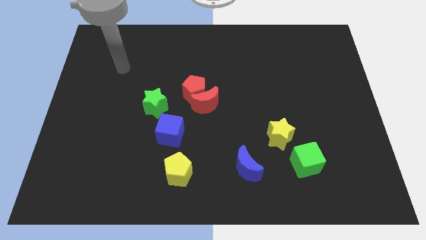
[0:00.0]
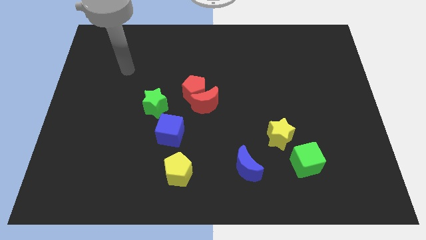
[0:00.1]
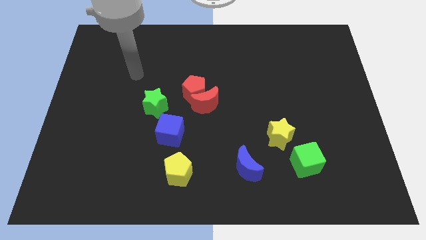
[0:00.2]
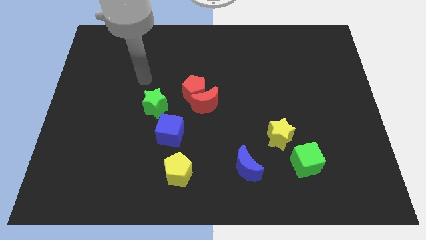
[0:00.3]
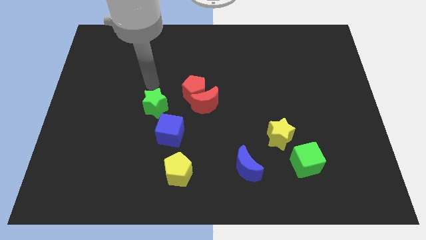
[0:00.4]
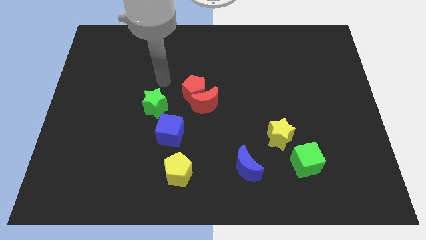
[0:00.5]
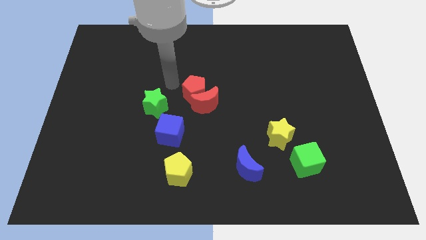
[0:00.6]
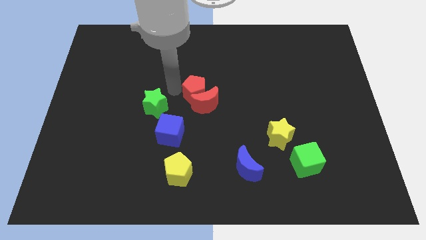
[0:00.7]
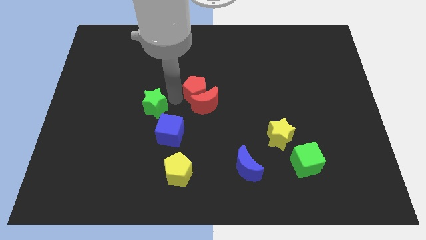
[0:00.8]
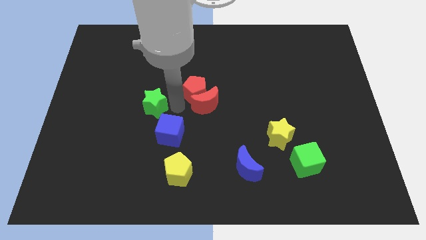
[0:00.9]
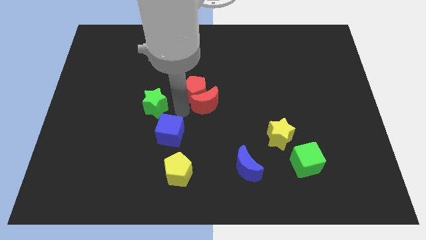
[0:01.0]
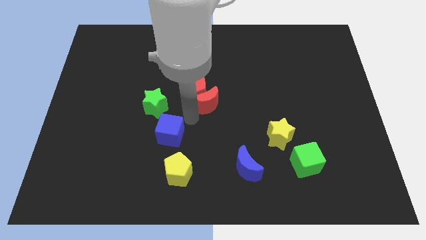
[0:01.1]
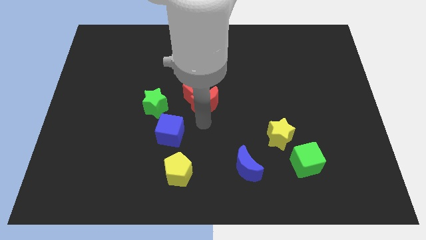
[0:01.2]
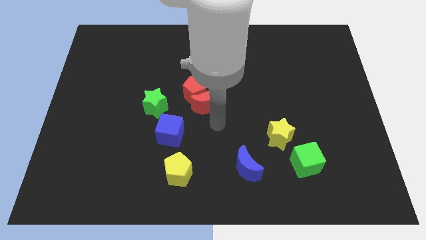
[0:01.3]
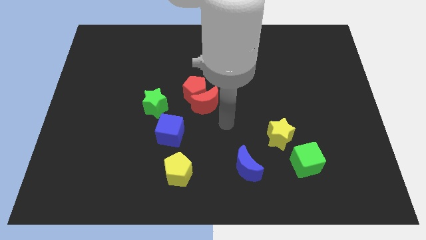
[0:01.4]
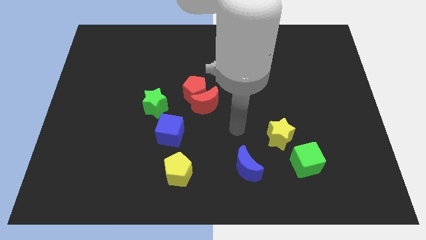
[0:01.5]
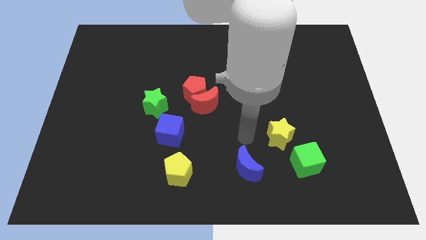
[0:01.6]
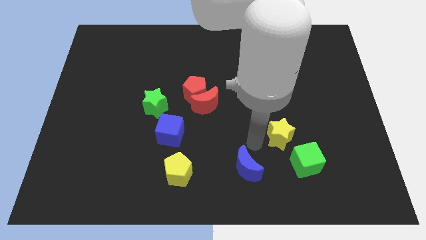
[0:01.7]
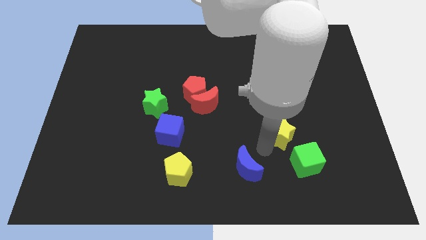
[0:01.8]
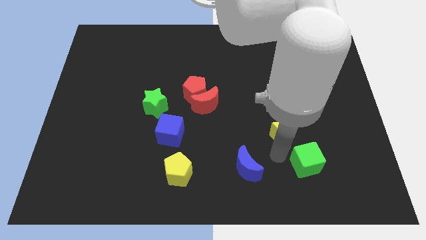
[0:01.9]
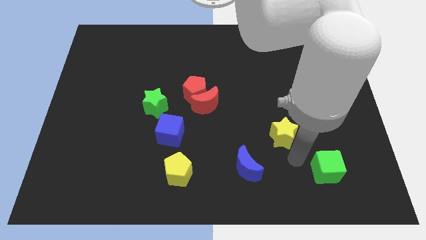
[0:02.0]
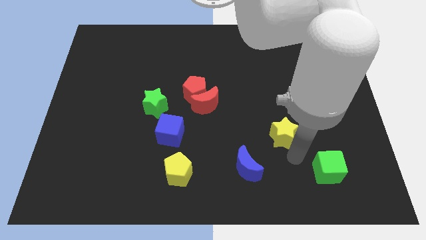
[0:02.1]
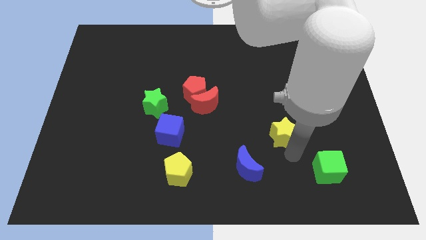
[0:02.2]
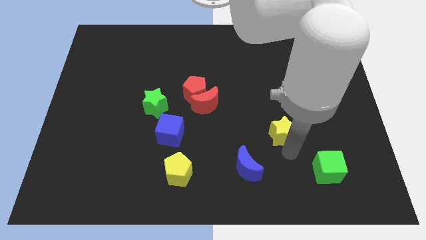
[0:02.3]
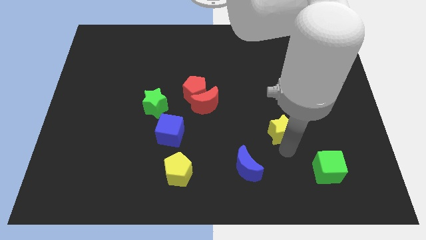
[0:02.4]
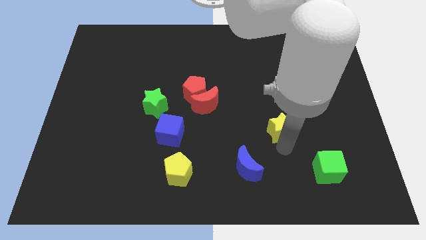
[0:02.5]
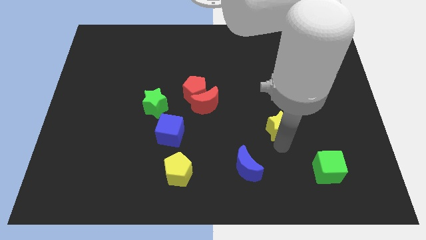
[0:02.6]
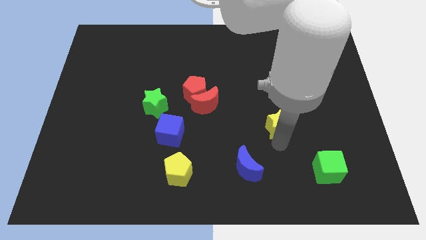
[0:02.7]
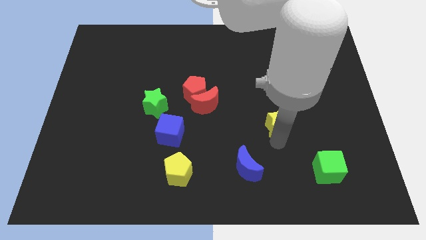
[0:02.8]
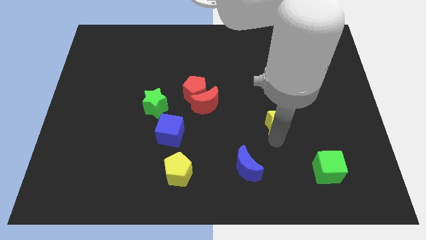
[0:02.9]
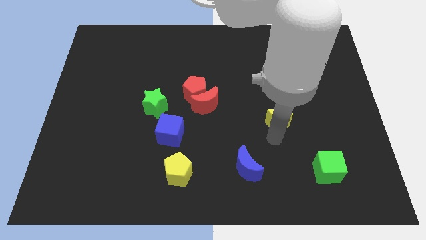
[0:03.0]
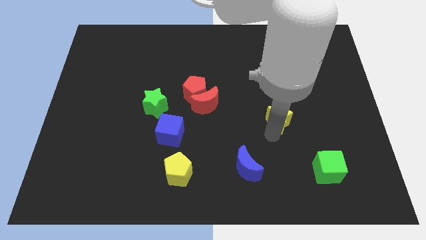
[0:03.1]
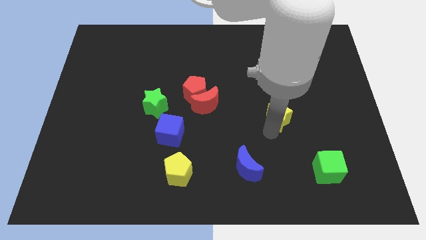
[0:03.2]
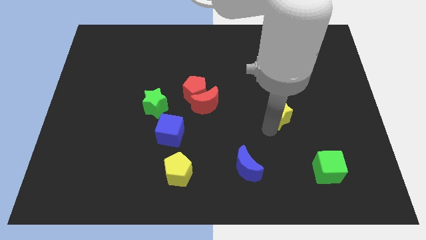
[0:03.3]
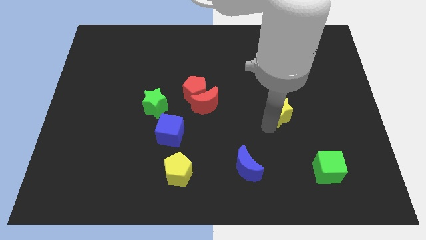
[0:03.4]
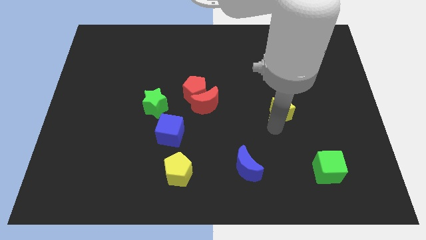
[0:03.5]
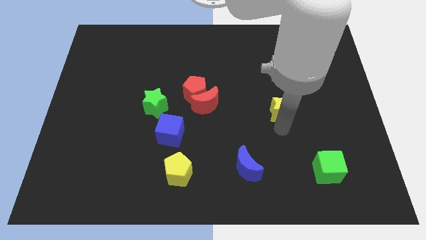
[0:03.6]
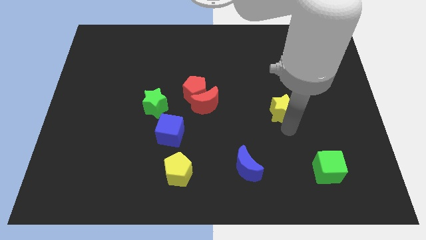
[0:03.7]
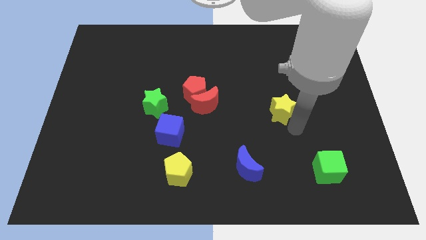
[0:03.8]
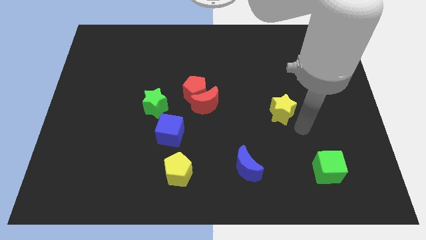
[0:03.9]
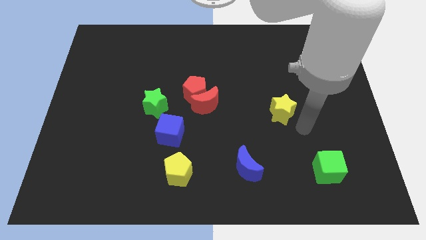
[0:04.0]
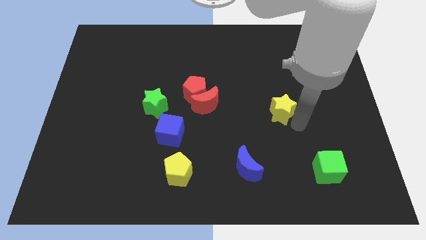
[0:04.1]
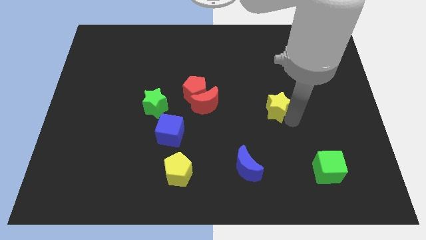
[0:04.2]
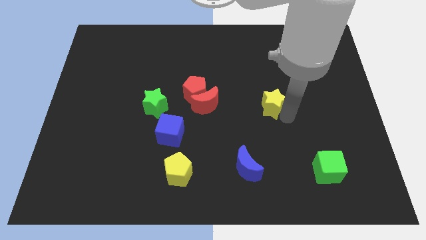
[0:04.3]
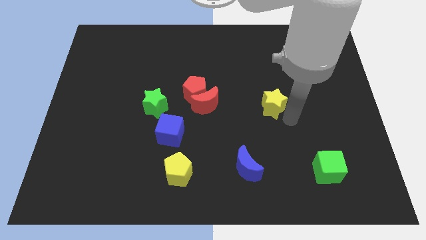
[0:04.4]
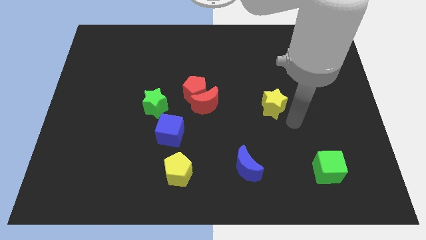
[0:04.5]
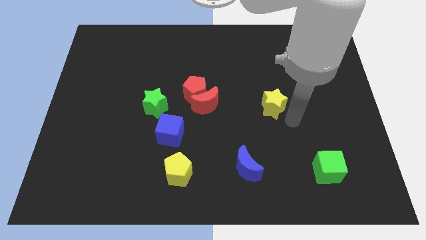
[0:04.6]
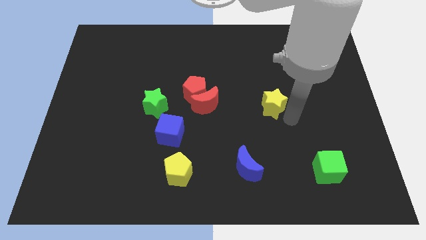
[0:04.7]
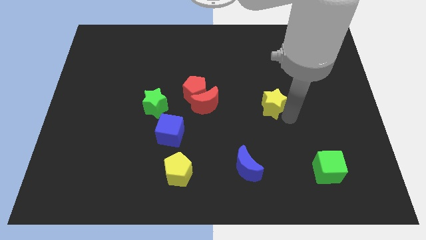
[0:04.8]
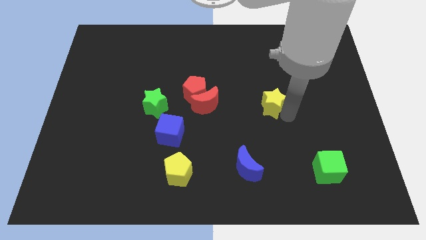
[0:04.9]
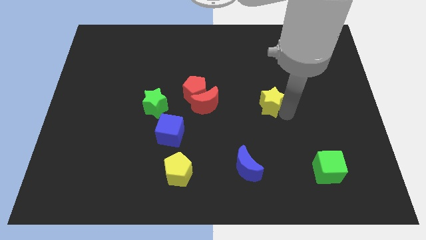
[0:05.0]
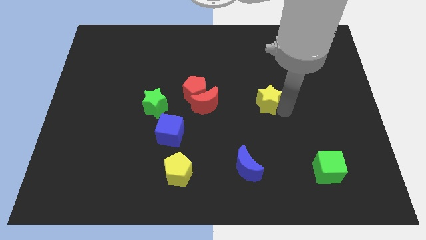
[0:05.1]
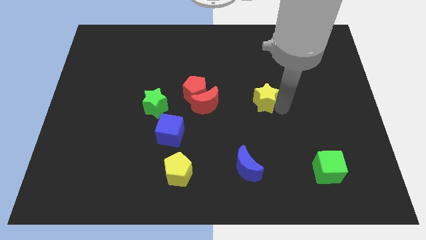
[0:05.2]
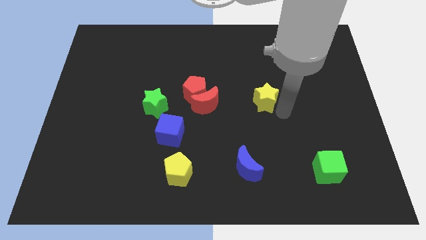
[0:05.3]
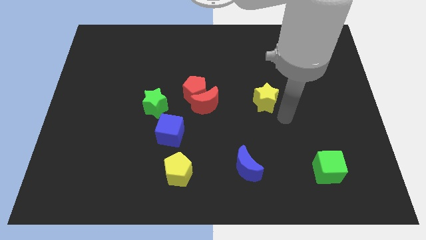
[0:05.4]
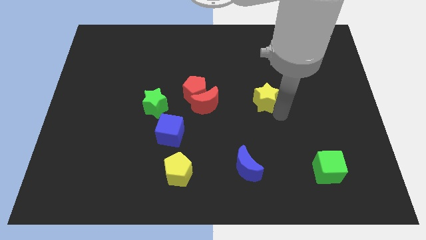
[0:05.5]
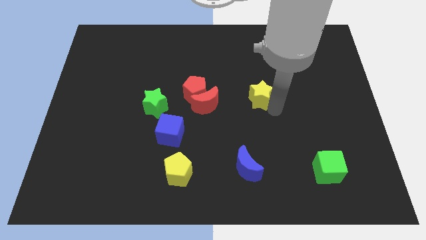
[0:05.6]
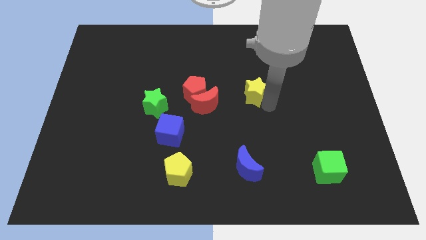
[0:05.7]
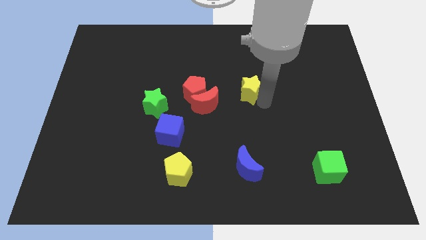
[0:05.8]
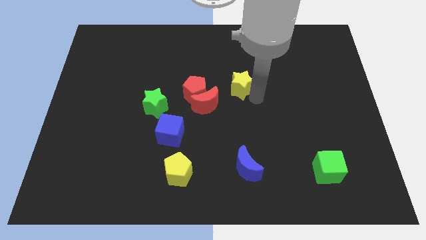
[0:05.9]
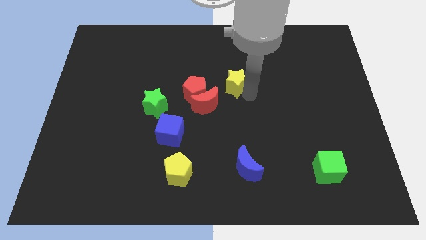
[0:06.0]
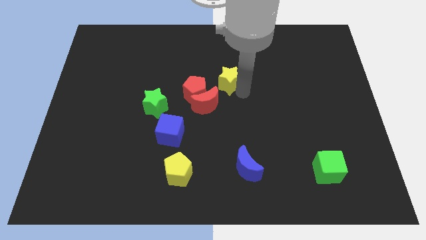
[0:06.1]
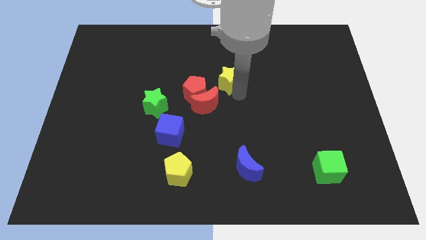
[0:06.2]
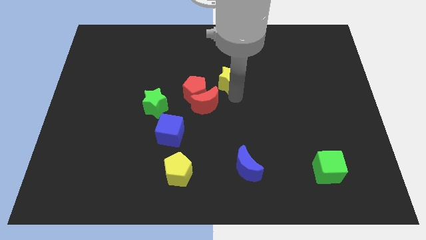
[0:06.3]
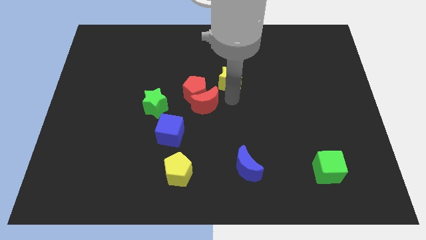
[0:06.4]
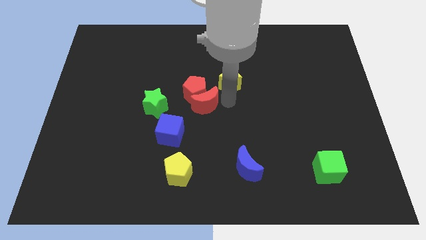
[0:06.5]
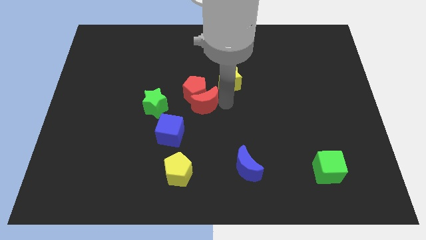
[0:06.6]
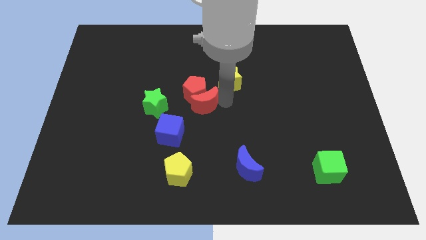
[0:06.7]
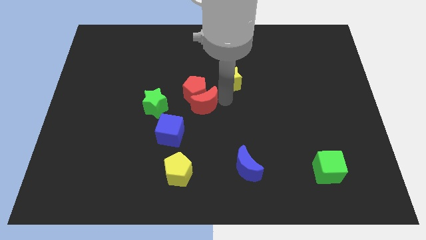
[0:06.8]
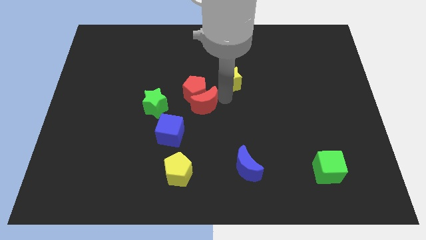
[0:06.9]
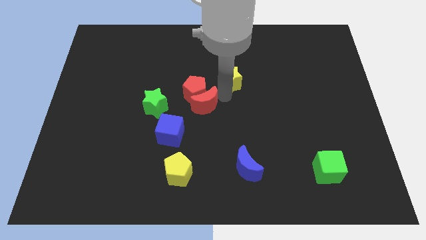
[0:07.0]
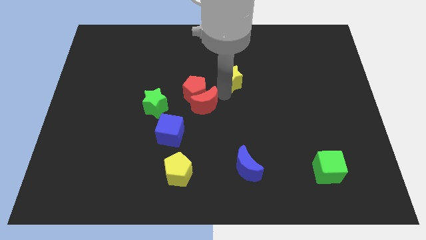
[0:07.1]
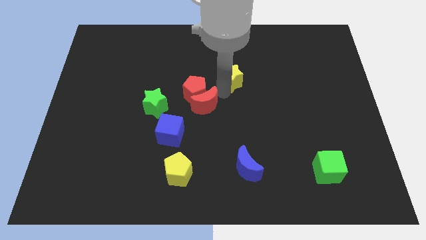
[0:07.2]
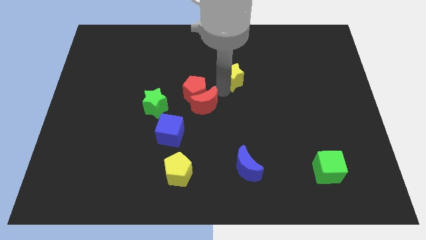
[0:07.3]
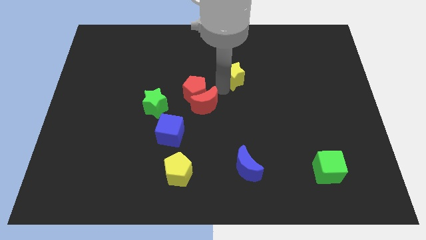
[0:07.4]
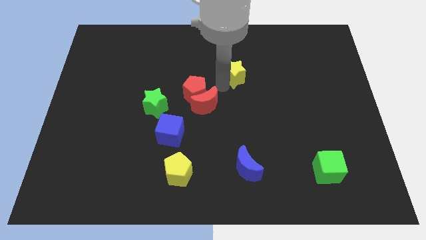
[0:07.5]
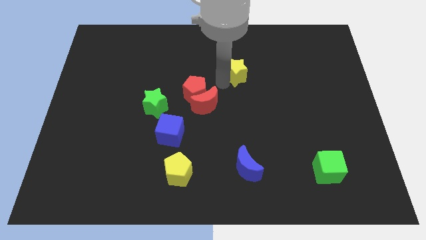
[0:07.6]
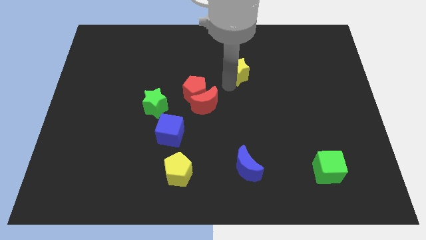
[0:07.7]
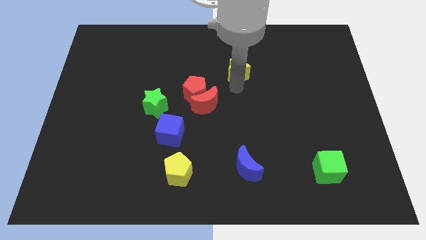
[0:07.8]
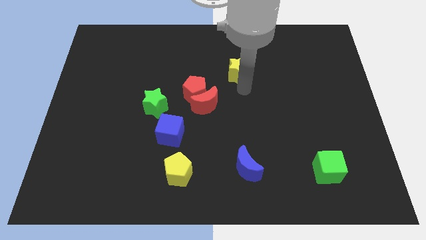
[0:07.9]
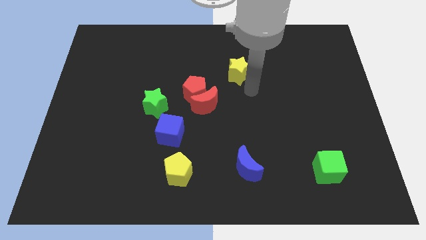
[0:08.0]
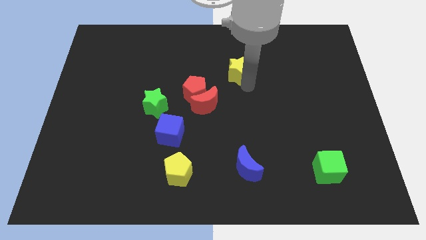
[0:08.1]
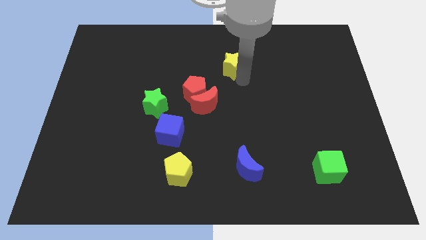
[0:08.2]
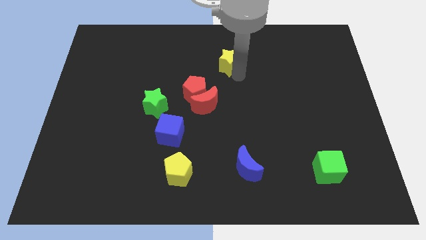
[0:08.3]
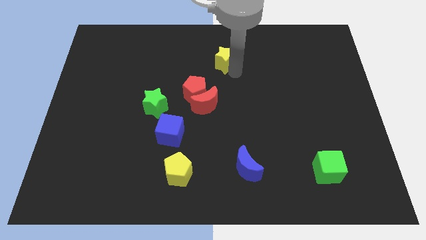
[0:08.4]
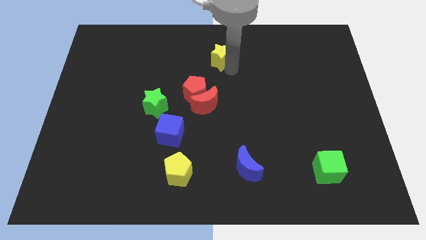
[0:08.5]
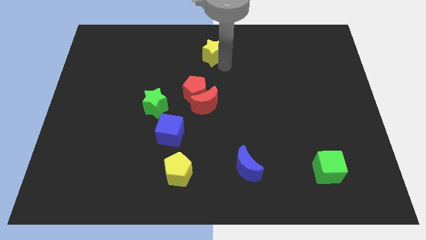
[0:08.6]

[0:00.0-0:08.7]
move the yellow star to the towards your base
